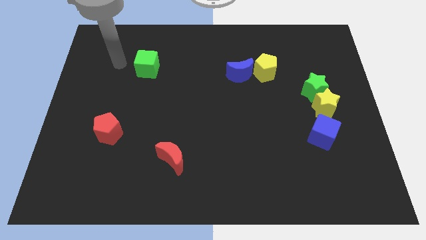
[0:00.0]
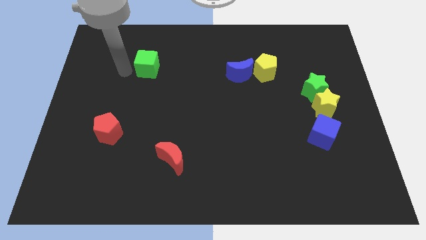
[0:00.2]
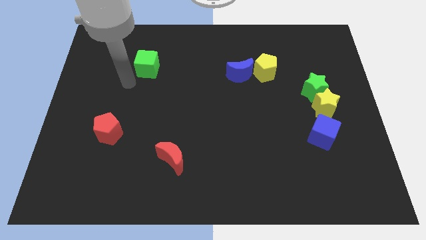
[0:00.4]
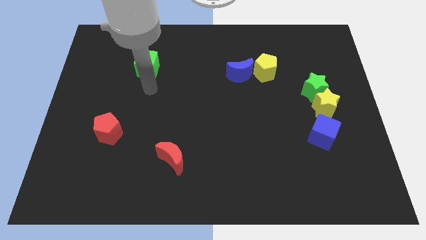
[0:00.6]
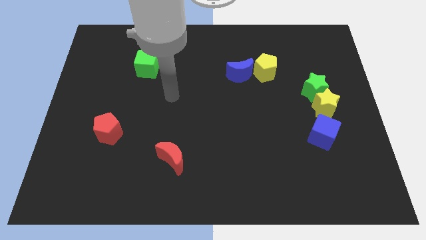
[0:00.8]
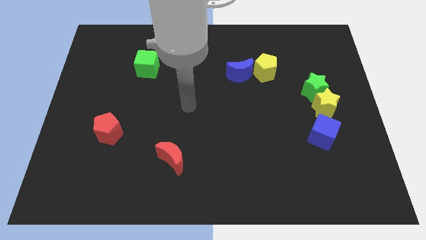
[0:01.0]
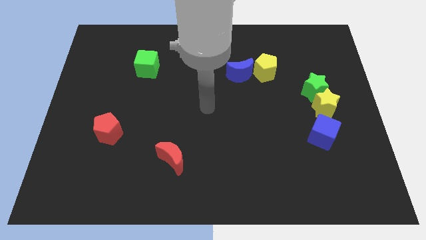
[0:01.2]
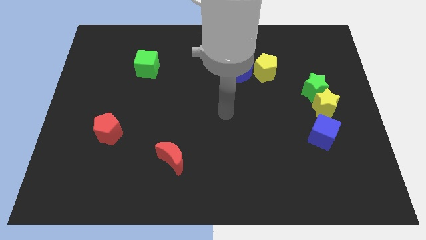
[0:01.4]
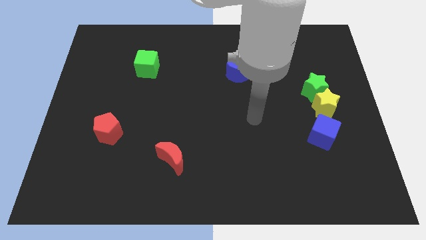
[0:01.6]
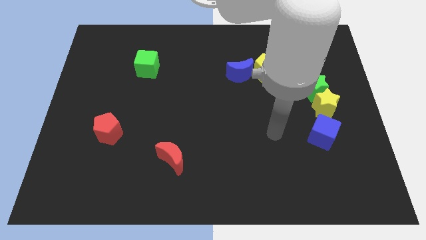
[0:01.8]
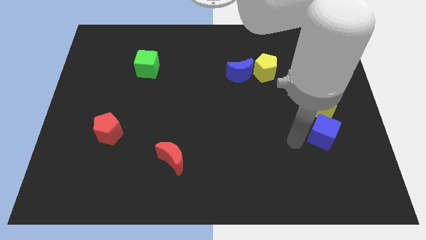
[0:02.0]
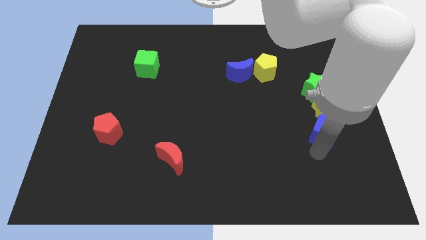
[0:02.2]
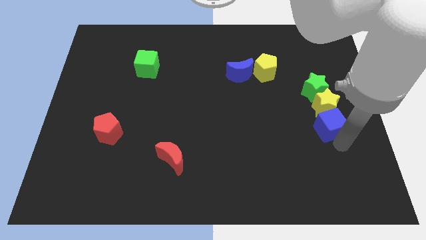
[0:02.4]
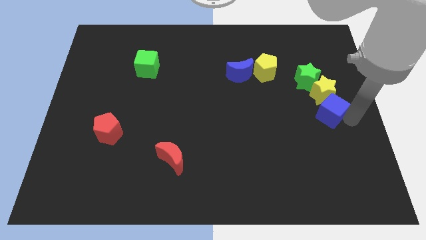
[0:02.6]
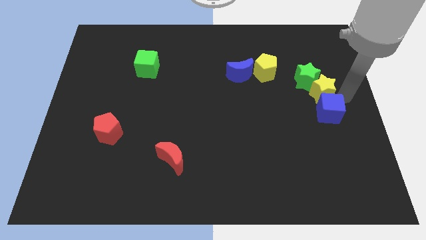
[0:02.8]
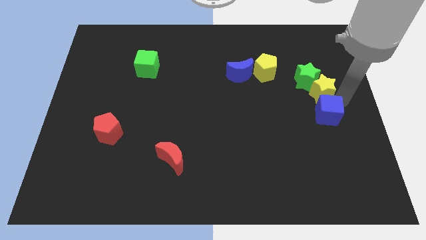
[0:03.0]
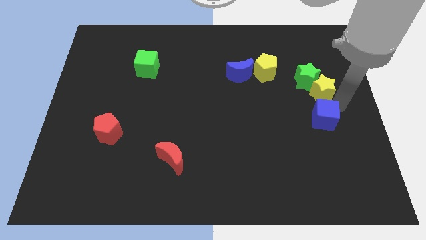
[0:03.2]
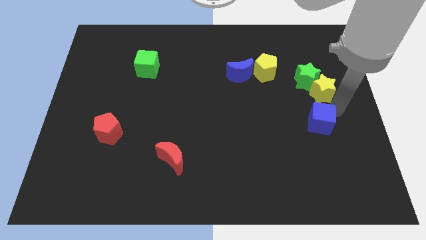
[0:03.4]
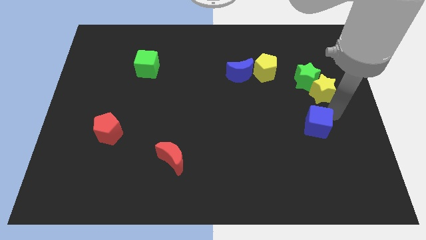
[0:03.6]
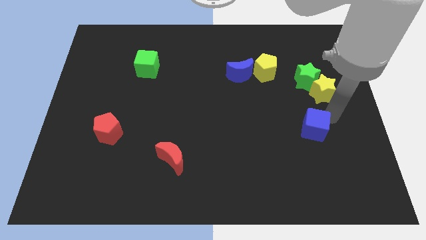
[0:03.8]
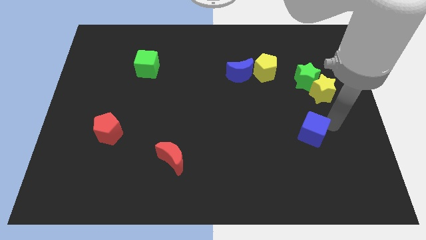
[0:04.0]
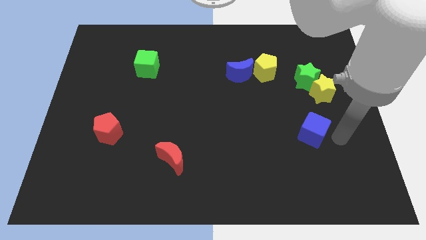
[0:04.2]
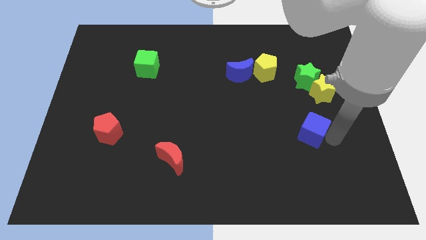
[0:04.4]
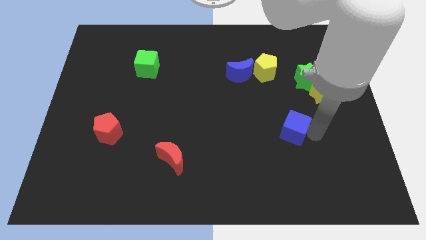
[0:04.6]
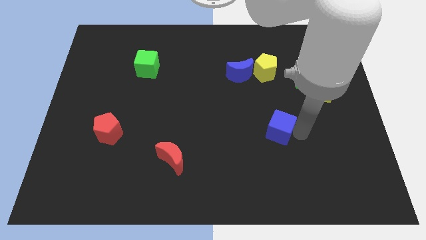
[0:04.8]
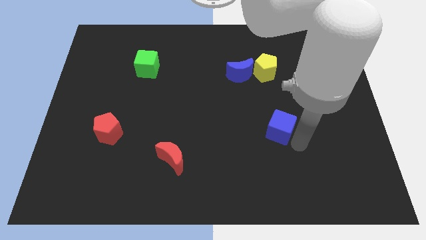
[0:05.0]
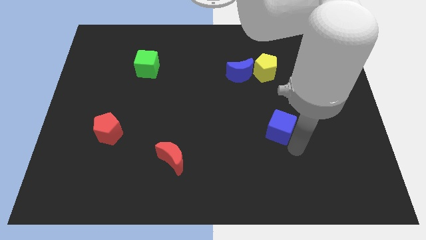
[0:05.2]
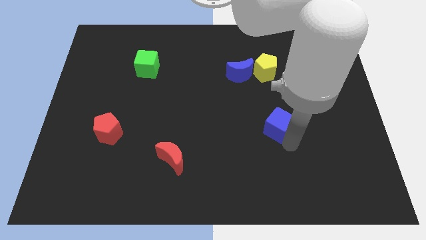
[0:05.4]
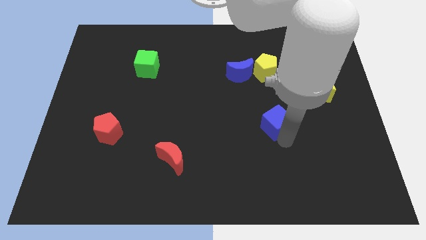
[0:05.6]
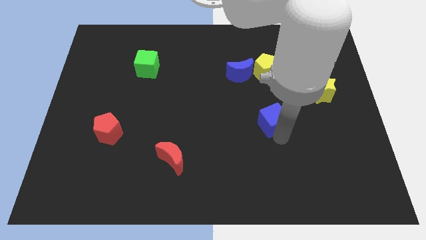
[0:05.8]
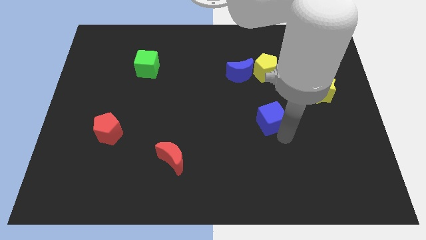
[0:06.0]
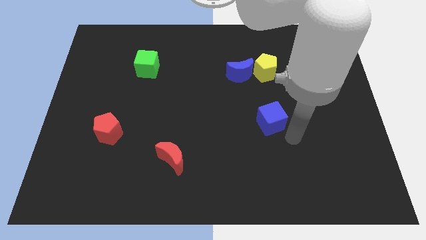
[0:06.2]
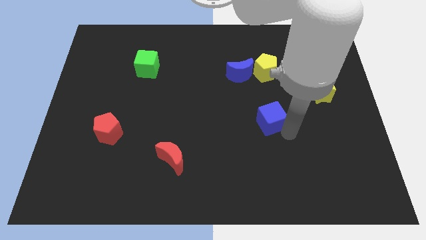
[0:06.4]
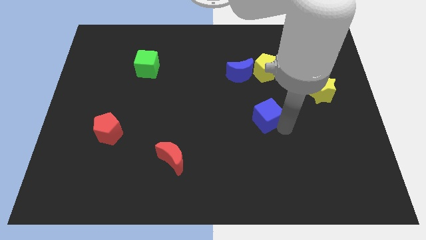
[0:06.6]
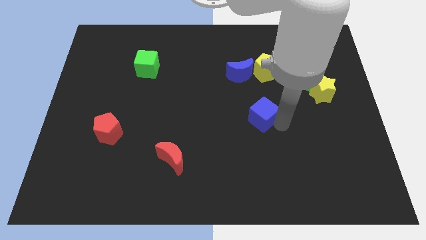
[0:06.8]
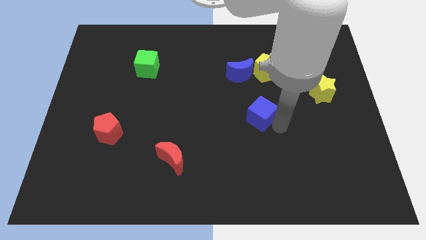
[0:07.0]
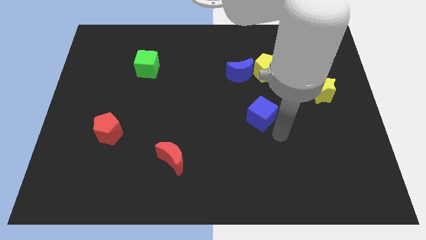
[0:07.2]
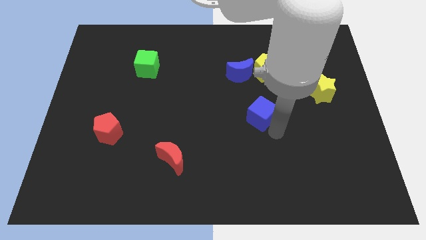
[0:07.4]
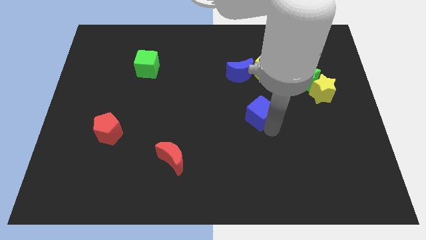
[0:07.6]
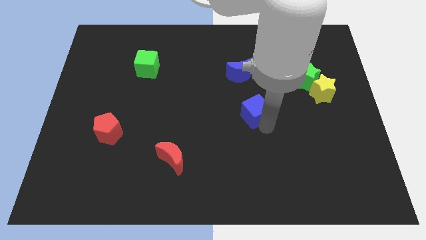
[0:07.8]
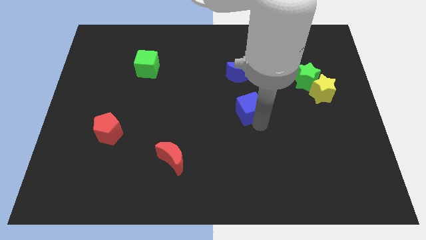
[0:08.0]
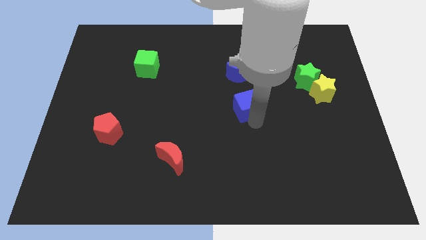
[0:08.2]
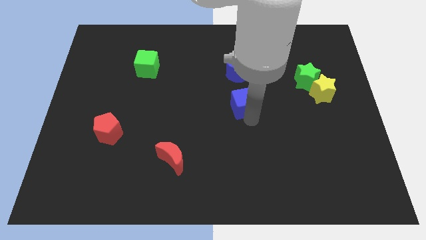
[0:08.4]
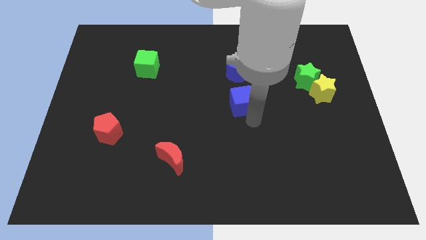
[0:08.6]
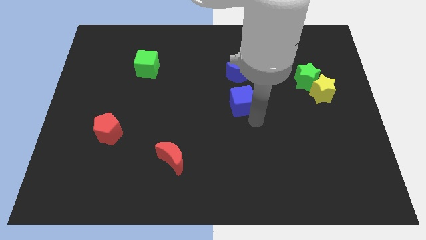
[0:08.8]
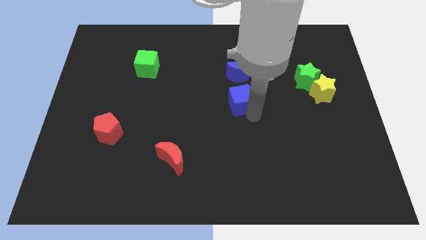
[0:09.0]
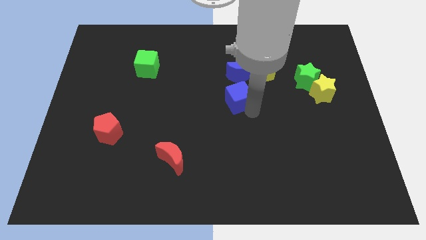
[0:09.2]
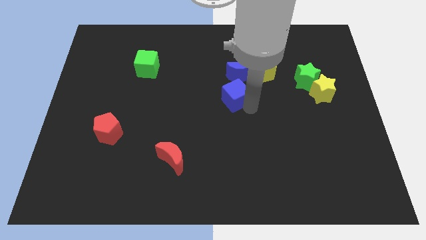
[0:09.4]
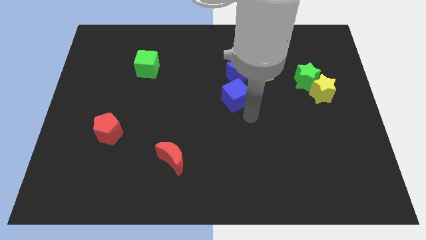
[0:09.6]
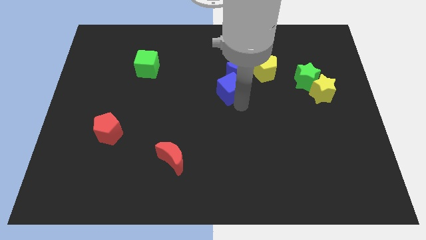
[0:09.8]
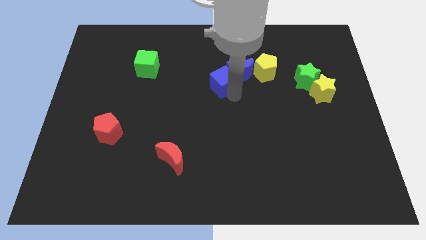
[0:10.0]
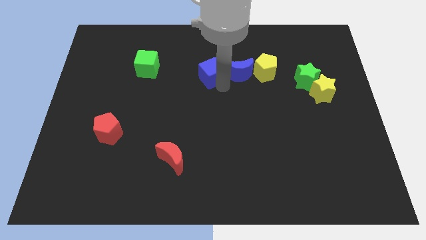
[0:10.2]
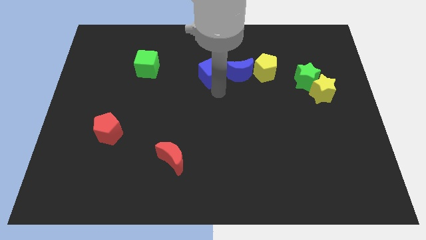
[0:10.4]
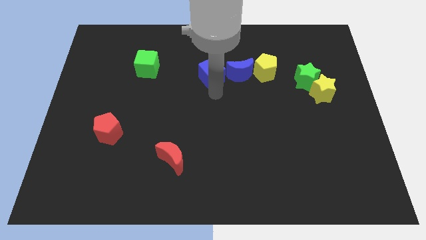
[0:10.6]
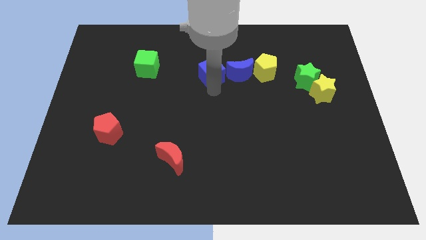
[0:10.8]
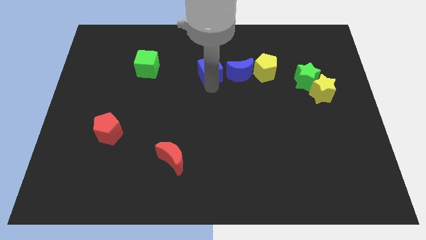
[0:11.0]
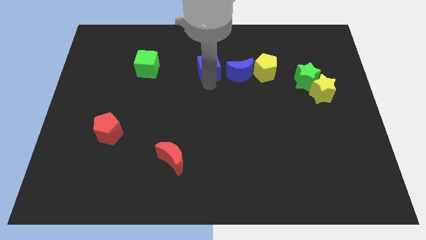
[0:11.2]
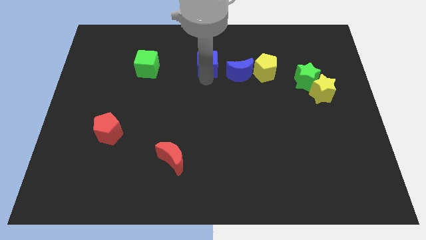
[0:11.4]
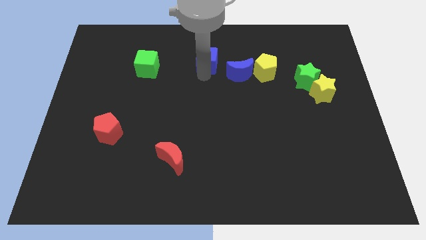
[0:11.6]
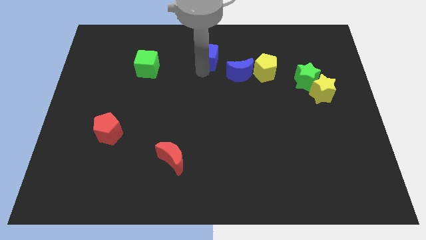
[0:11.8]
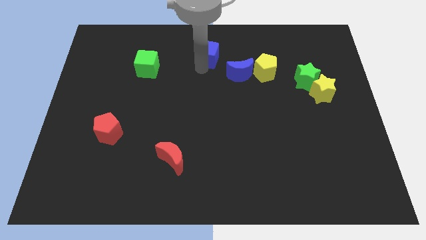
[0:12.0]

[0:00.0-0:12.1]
move the blue cube to the top
